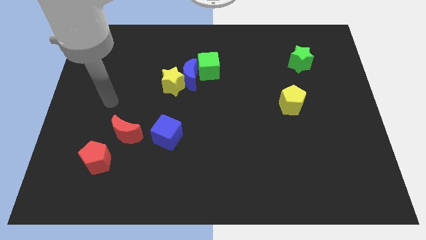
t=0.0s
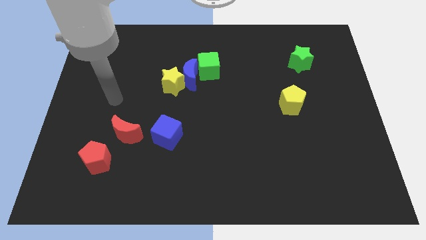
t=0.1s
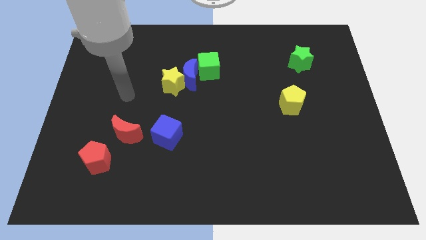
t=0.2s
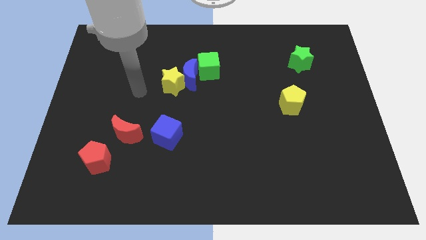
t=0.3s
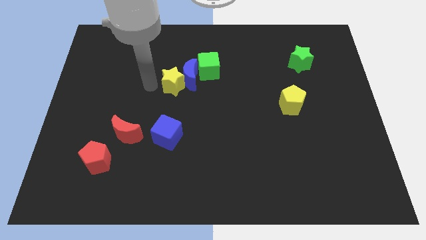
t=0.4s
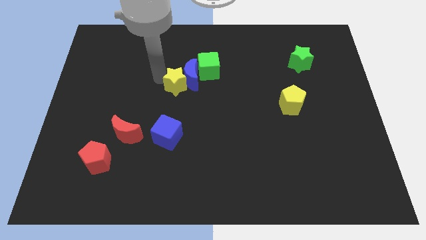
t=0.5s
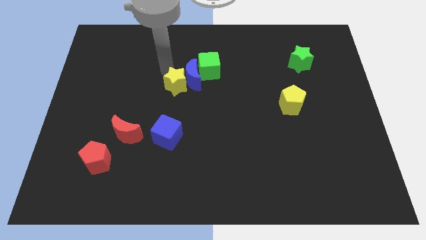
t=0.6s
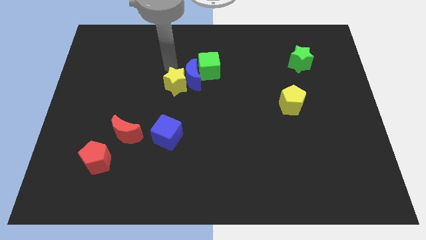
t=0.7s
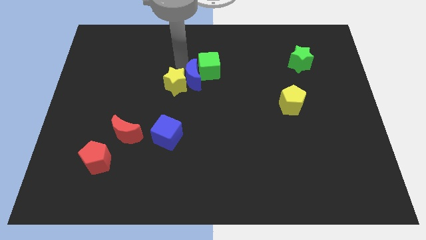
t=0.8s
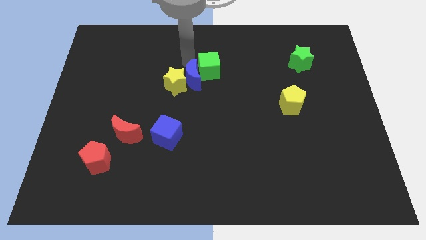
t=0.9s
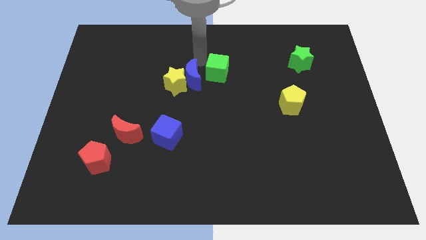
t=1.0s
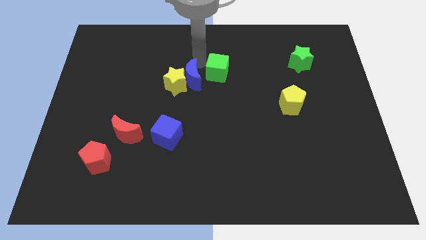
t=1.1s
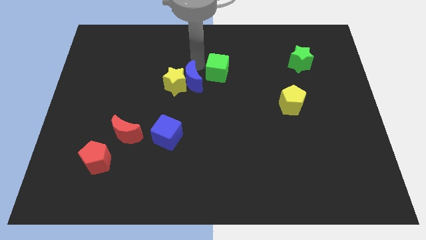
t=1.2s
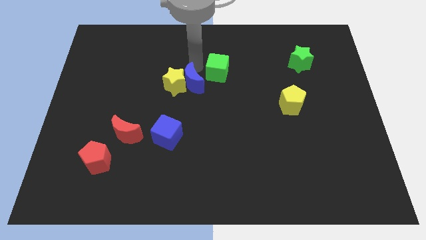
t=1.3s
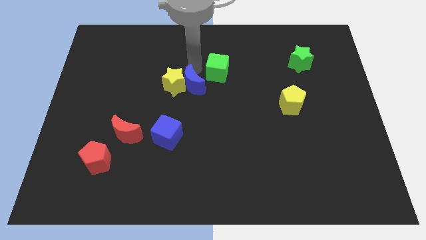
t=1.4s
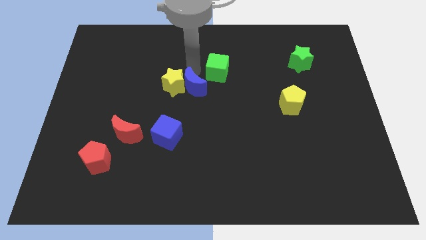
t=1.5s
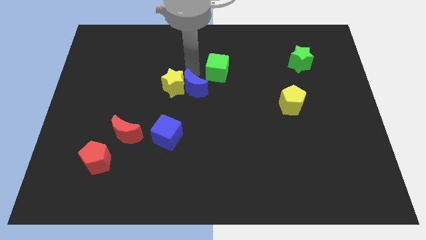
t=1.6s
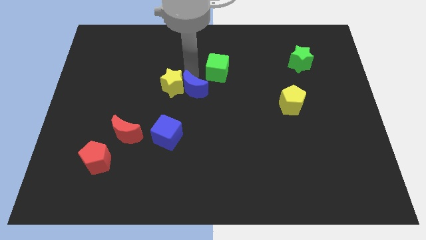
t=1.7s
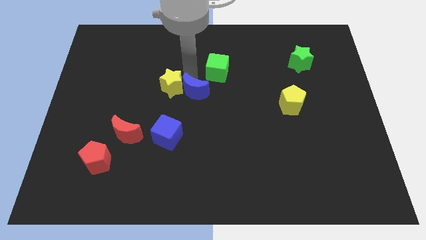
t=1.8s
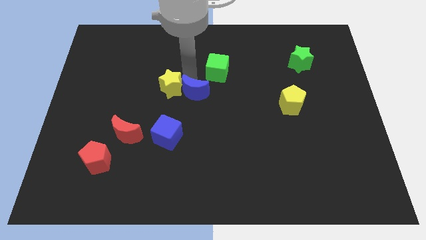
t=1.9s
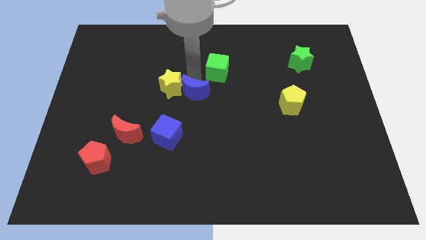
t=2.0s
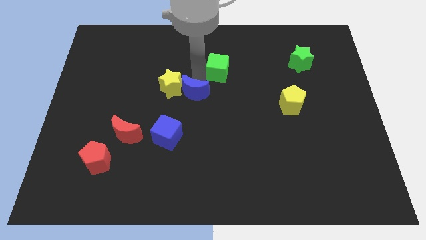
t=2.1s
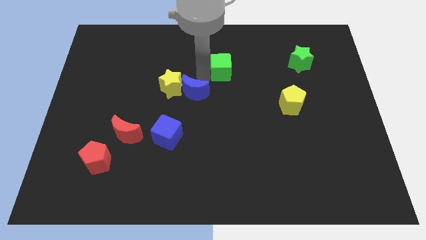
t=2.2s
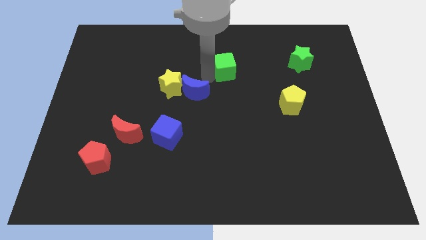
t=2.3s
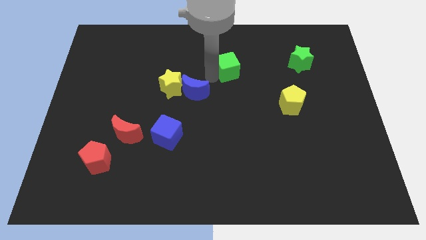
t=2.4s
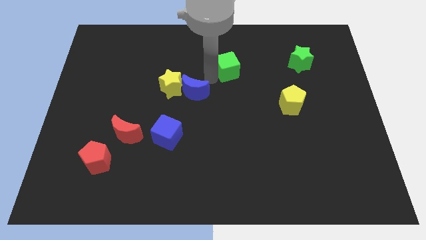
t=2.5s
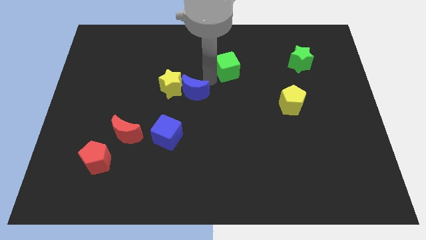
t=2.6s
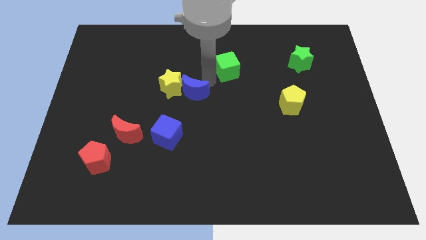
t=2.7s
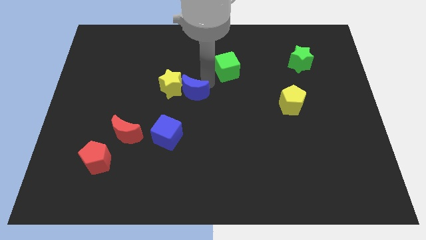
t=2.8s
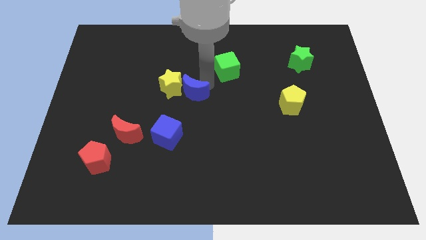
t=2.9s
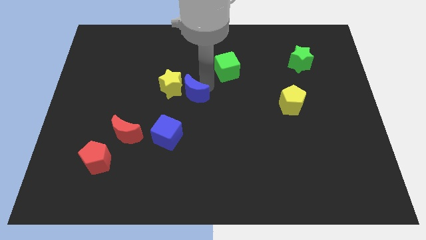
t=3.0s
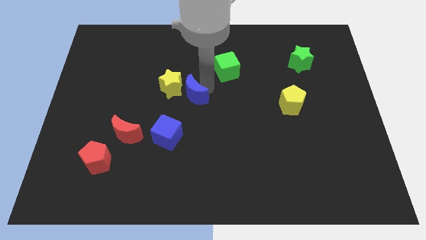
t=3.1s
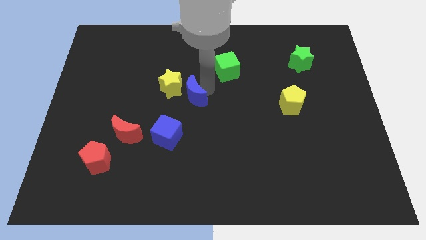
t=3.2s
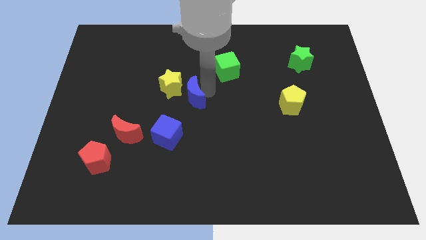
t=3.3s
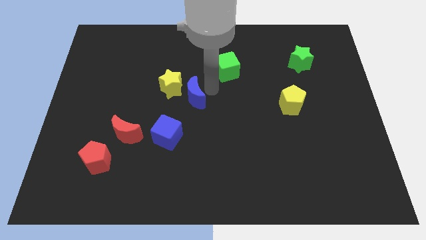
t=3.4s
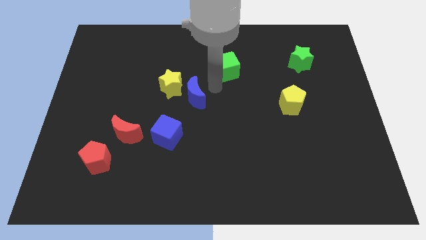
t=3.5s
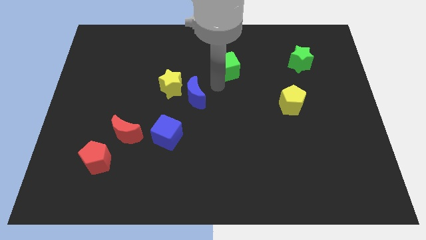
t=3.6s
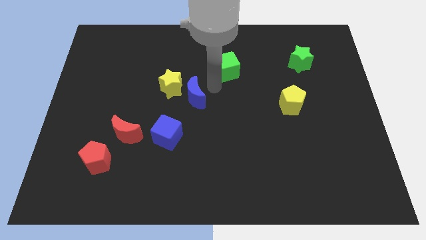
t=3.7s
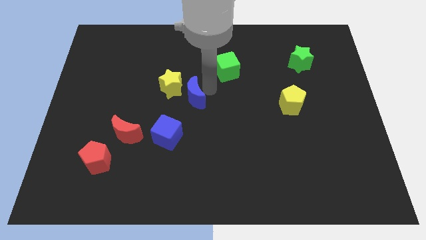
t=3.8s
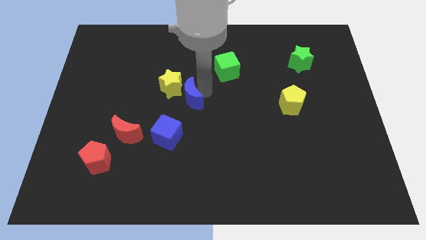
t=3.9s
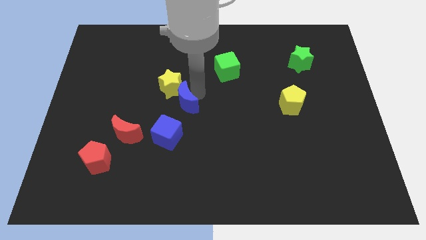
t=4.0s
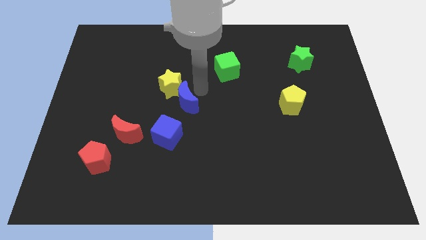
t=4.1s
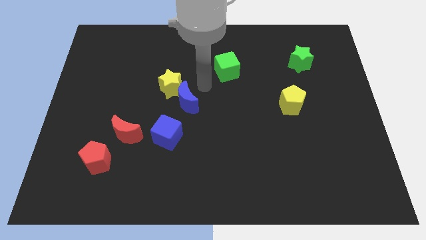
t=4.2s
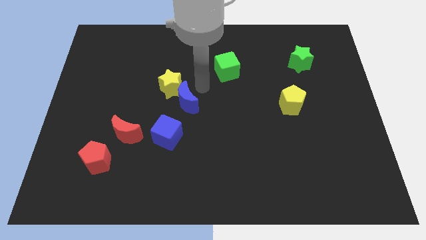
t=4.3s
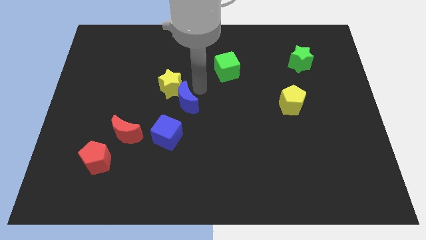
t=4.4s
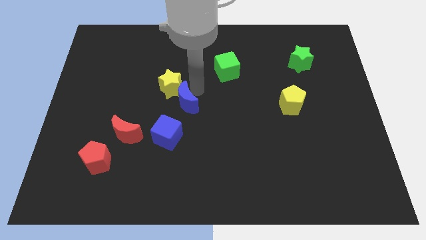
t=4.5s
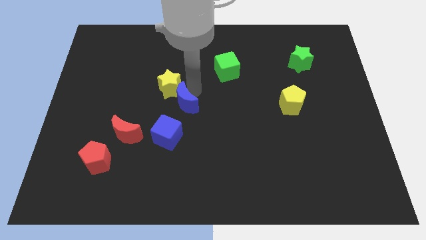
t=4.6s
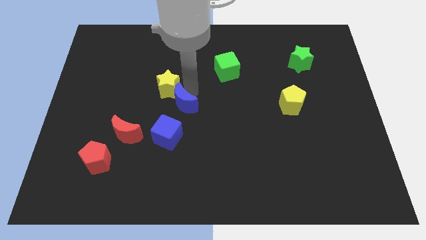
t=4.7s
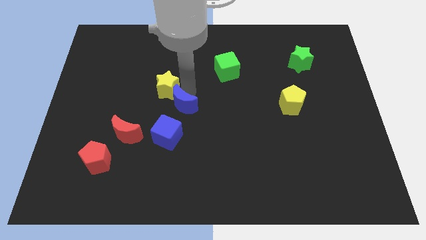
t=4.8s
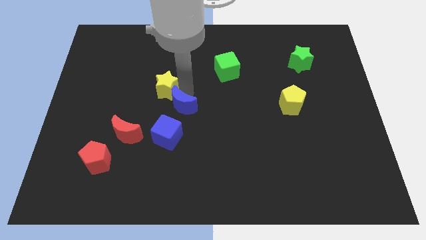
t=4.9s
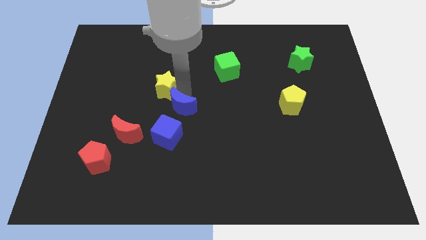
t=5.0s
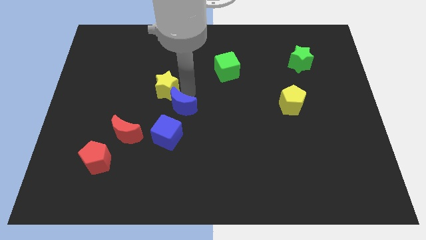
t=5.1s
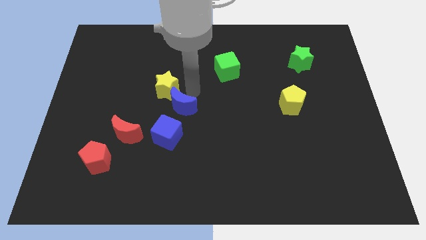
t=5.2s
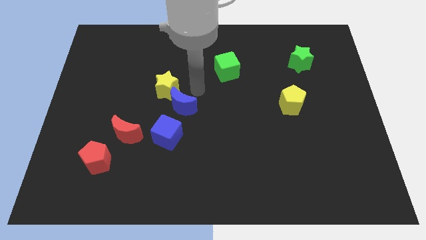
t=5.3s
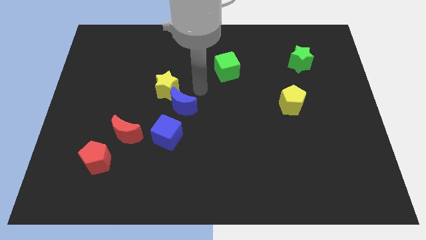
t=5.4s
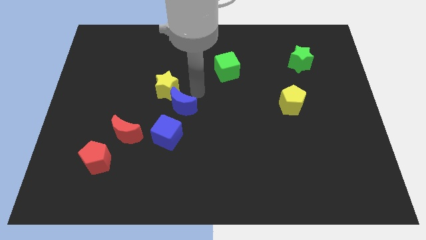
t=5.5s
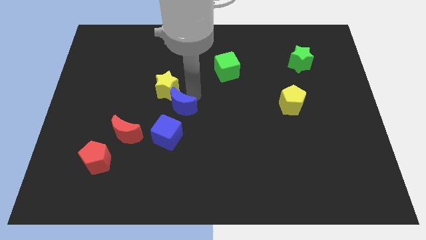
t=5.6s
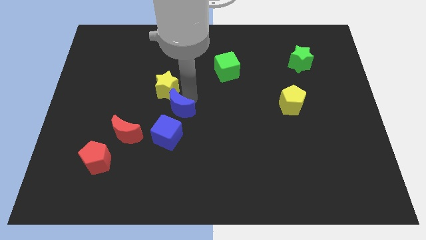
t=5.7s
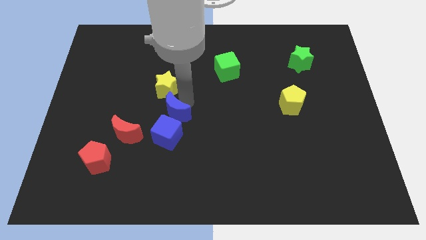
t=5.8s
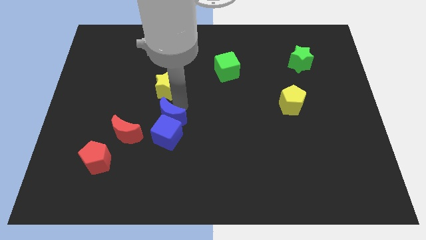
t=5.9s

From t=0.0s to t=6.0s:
move the blue moon next to the blue cube
